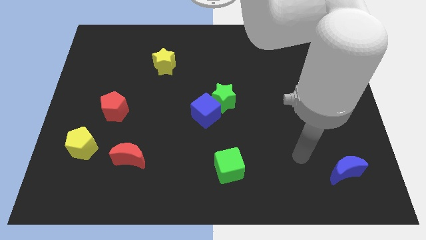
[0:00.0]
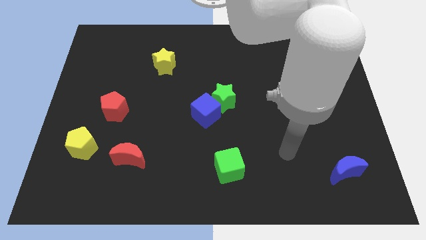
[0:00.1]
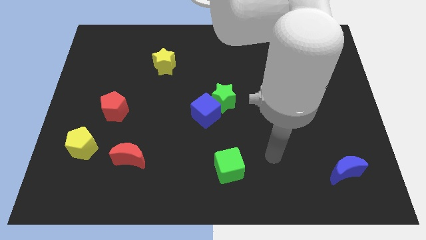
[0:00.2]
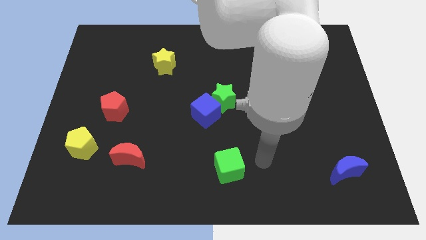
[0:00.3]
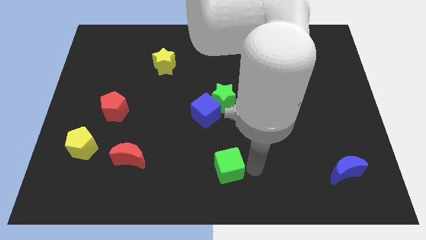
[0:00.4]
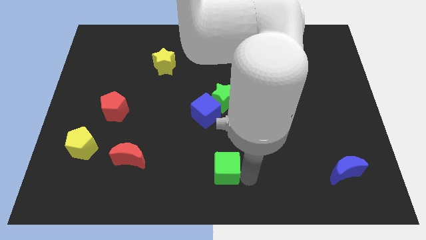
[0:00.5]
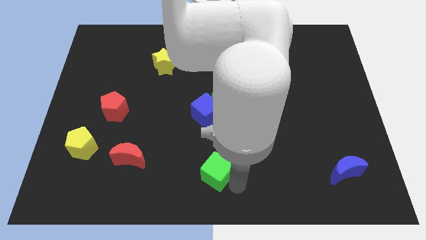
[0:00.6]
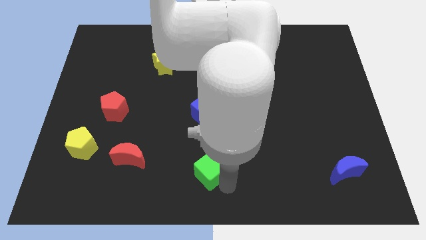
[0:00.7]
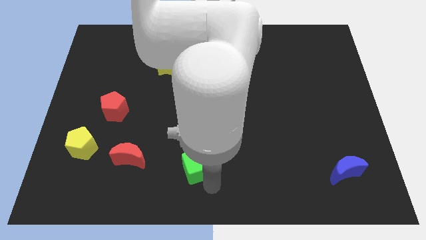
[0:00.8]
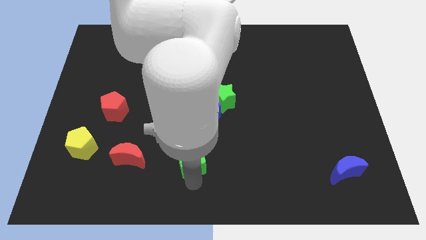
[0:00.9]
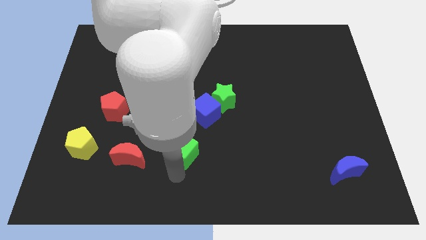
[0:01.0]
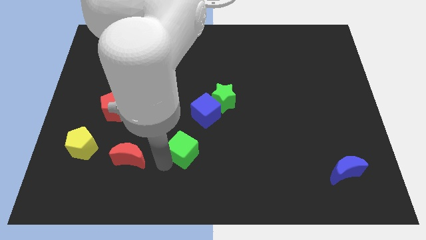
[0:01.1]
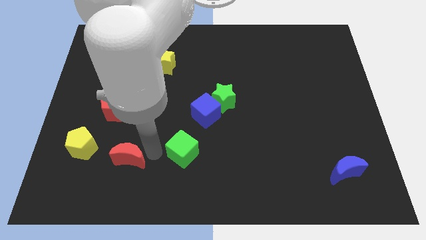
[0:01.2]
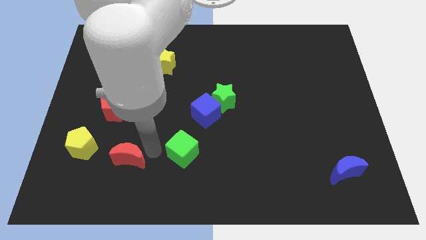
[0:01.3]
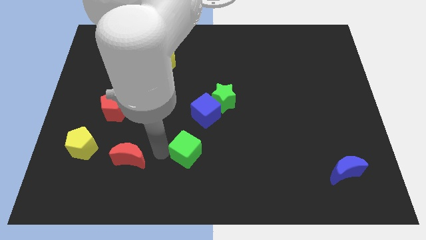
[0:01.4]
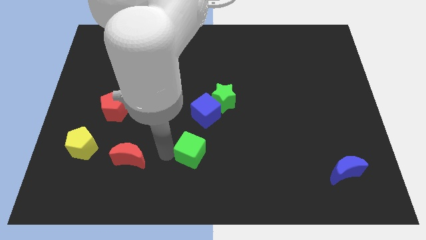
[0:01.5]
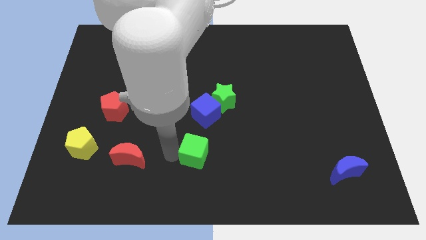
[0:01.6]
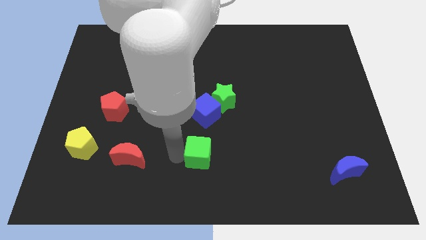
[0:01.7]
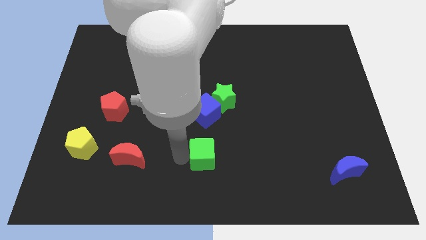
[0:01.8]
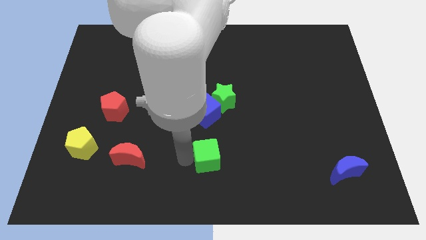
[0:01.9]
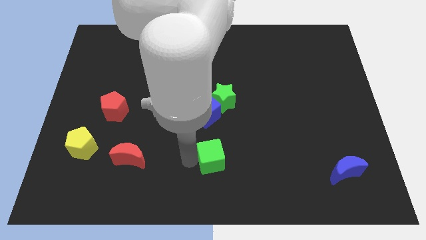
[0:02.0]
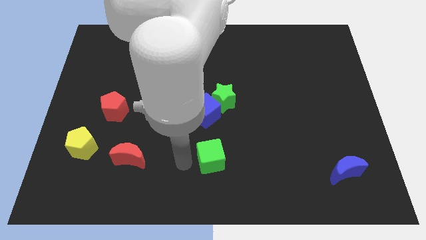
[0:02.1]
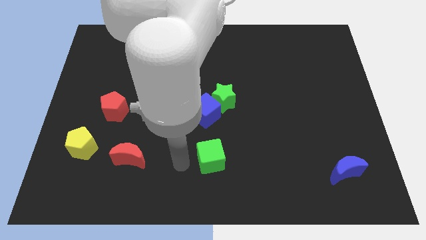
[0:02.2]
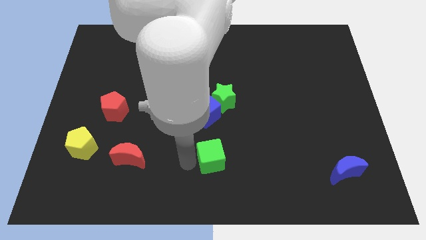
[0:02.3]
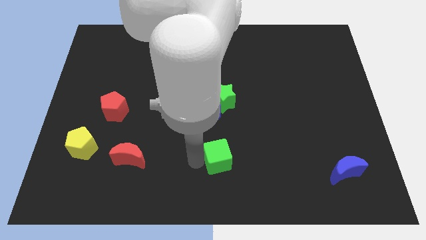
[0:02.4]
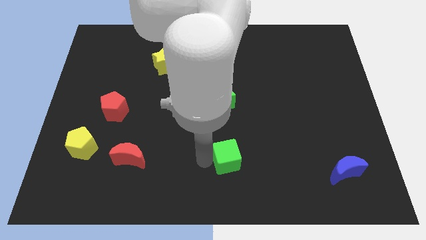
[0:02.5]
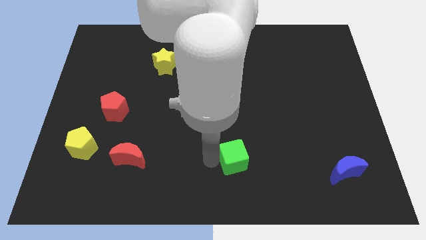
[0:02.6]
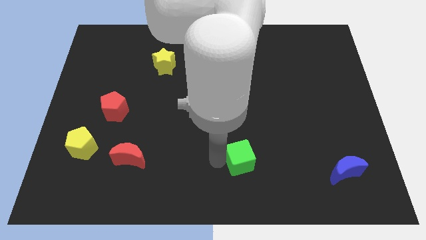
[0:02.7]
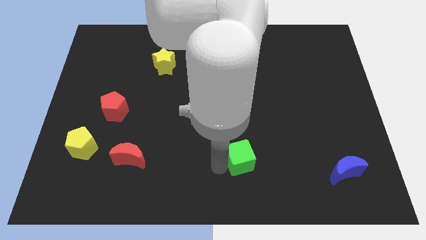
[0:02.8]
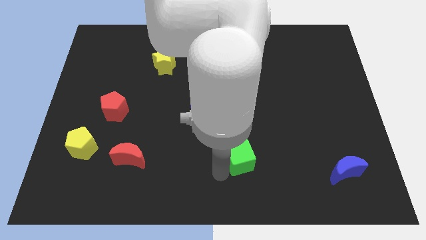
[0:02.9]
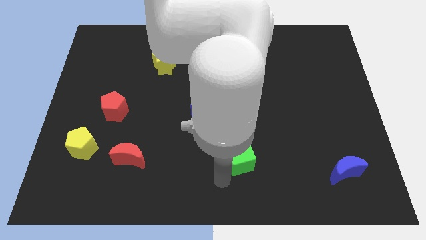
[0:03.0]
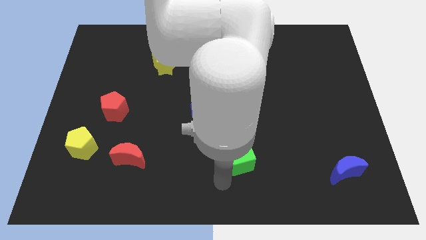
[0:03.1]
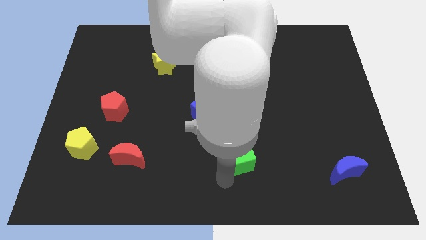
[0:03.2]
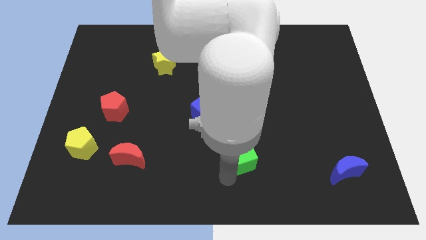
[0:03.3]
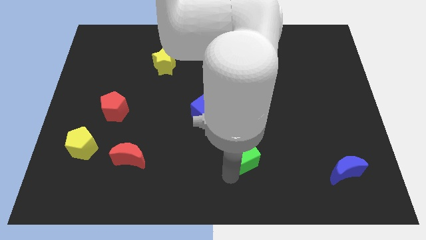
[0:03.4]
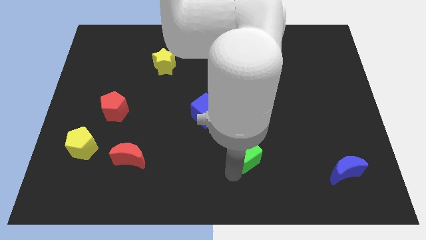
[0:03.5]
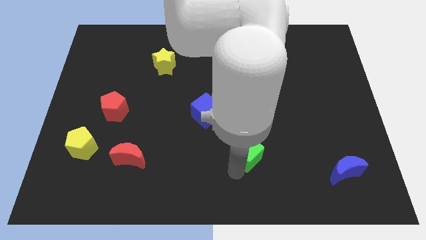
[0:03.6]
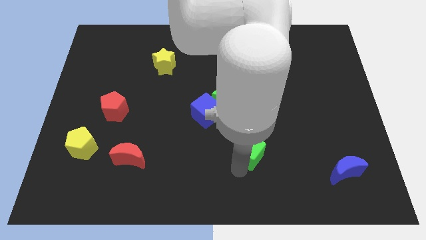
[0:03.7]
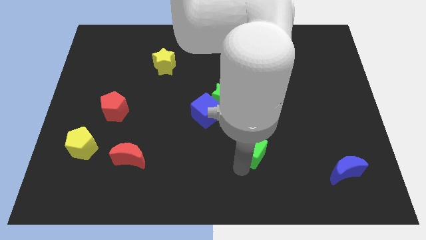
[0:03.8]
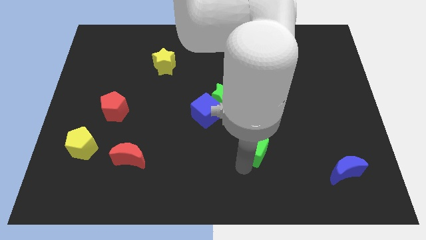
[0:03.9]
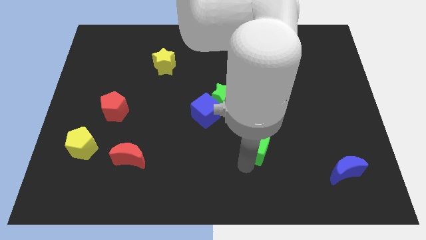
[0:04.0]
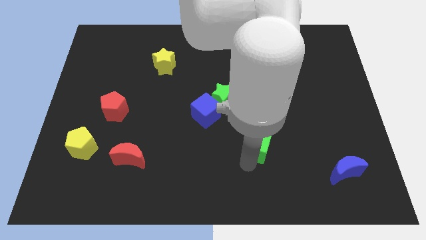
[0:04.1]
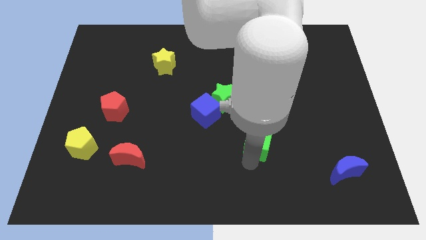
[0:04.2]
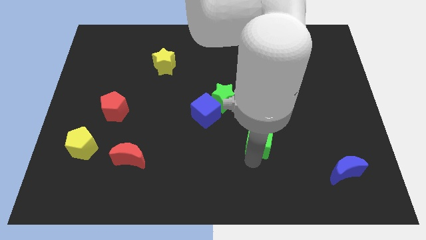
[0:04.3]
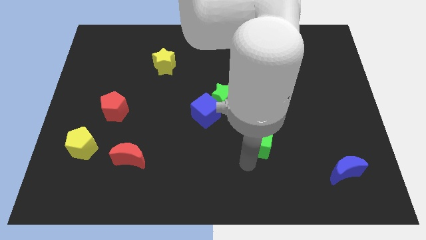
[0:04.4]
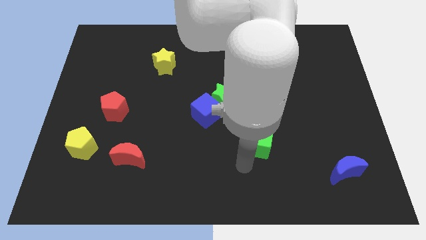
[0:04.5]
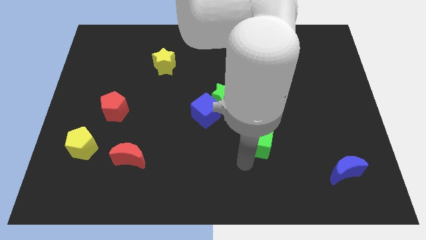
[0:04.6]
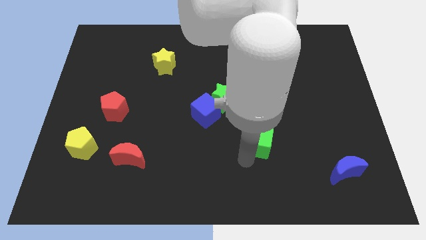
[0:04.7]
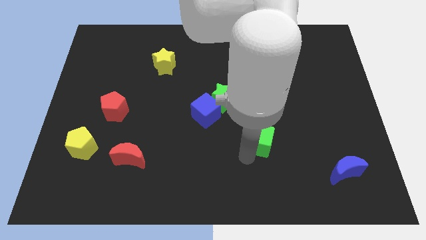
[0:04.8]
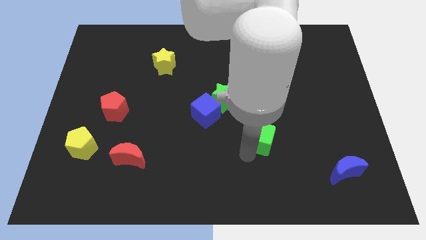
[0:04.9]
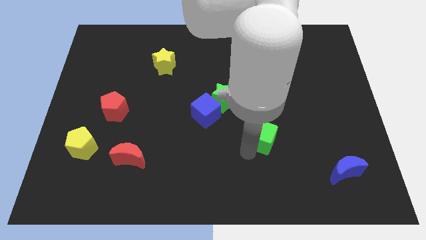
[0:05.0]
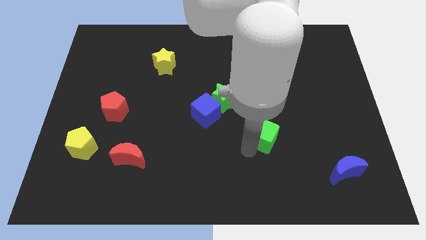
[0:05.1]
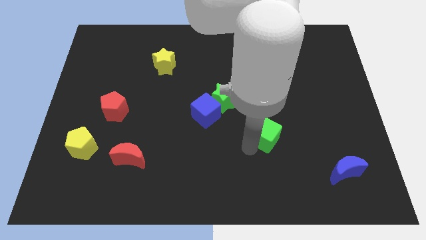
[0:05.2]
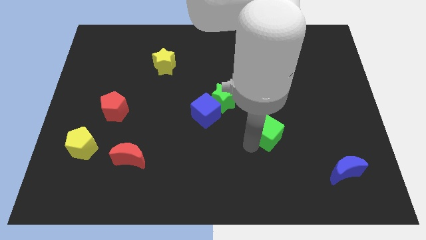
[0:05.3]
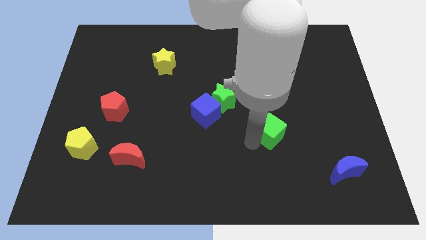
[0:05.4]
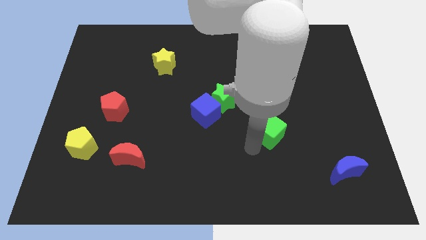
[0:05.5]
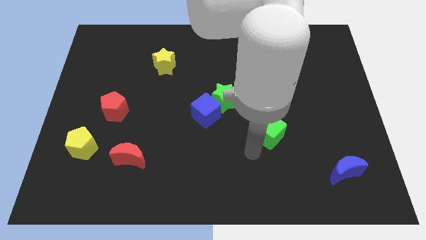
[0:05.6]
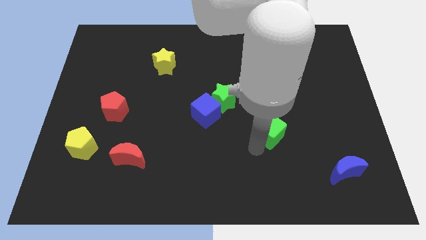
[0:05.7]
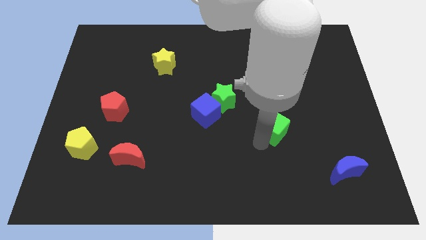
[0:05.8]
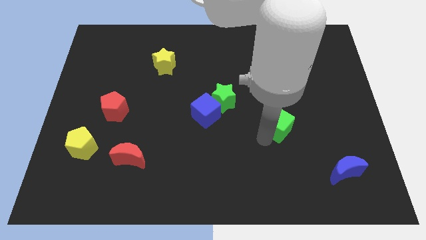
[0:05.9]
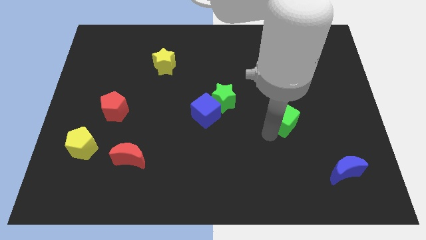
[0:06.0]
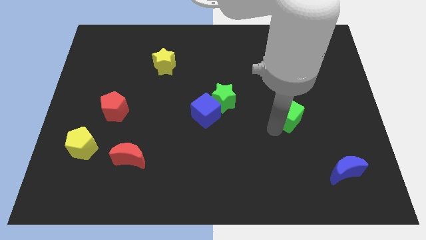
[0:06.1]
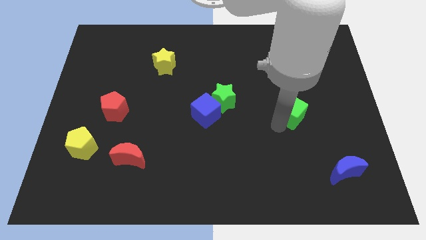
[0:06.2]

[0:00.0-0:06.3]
slide the green cube diagonally upwards and to the right

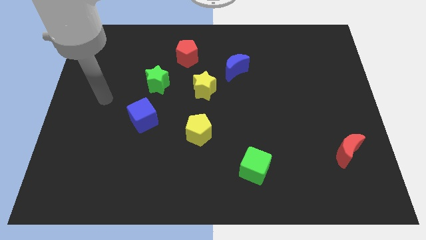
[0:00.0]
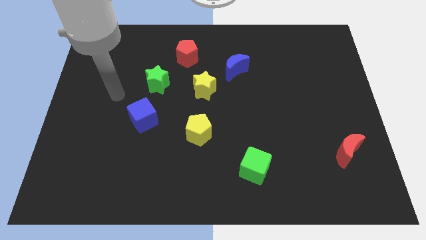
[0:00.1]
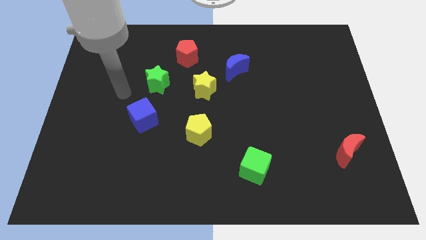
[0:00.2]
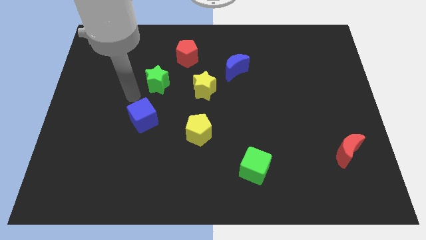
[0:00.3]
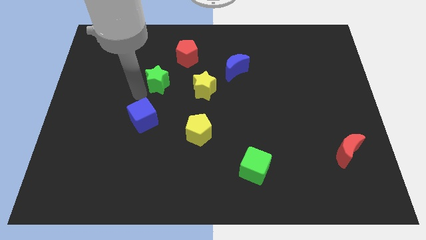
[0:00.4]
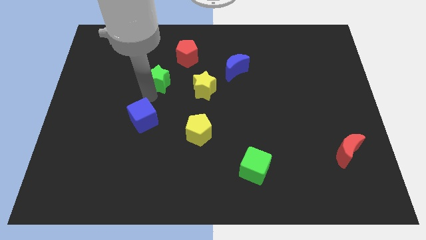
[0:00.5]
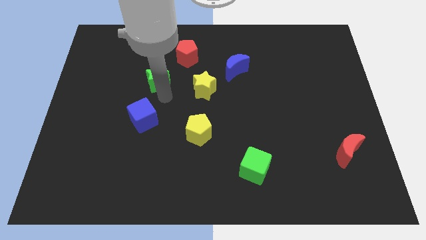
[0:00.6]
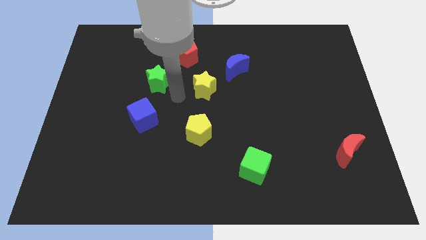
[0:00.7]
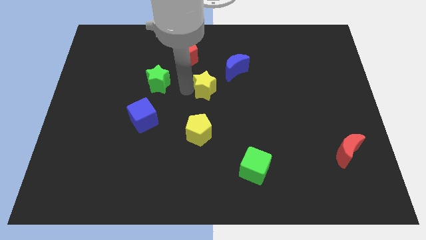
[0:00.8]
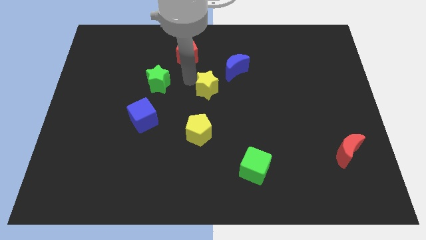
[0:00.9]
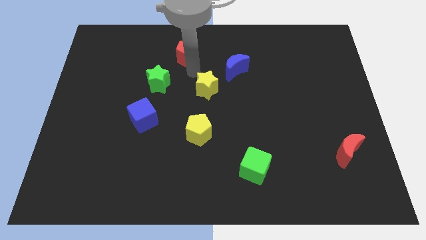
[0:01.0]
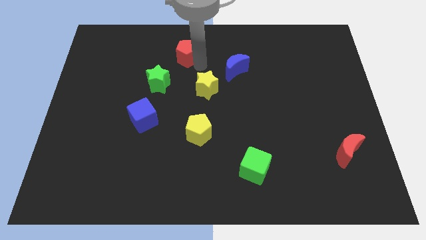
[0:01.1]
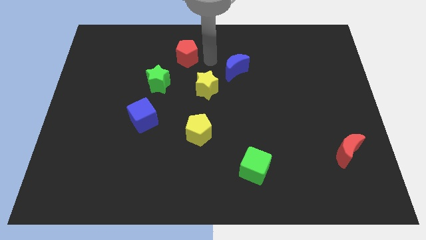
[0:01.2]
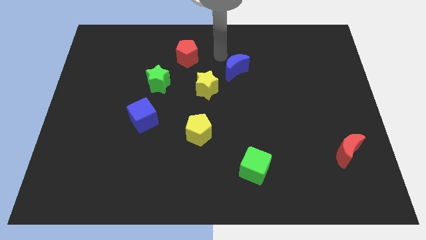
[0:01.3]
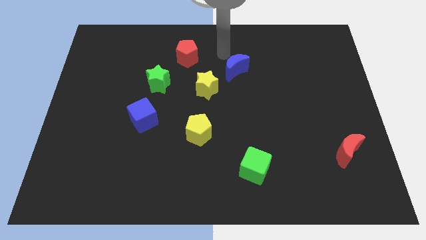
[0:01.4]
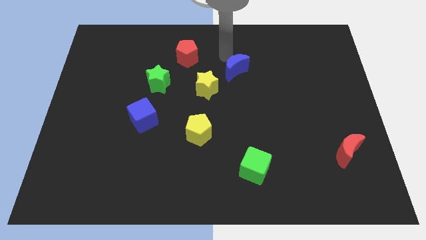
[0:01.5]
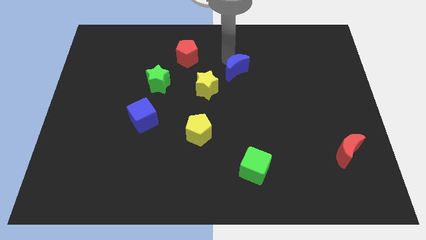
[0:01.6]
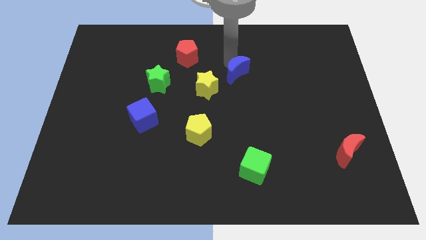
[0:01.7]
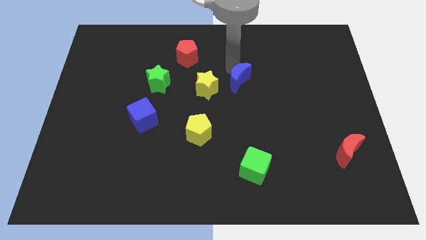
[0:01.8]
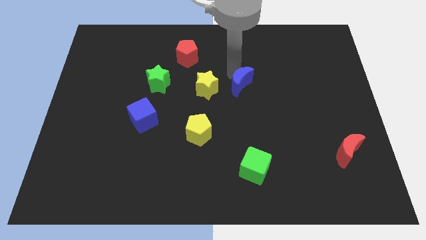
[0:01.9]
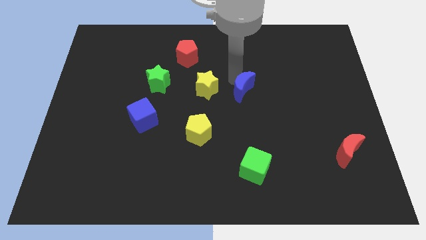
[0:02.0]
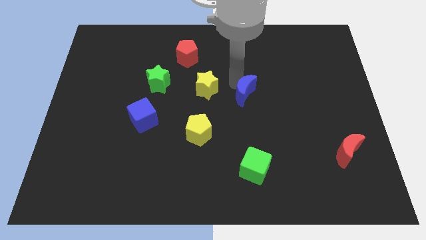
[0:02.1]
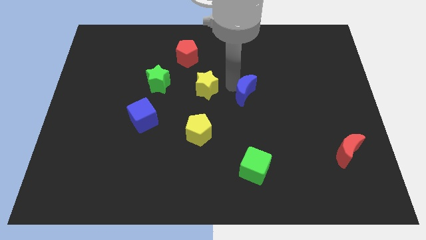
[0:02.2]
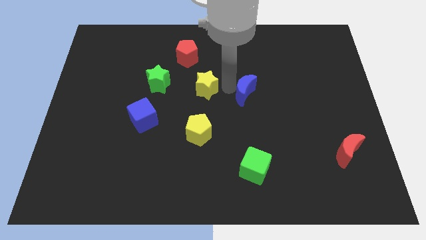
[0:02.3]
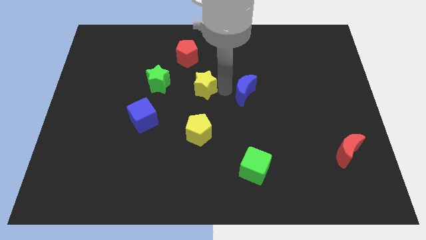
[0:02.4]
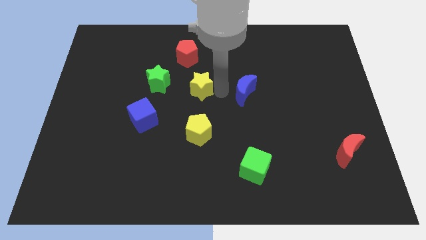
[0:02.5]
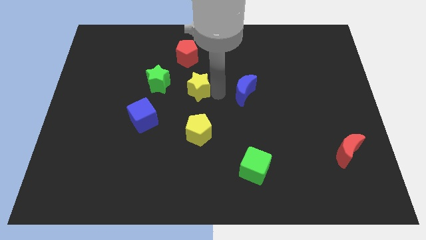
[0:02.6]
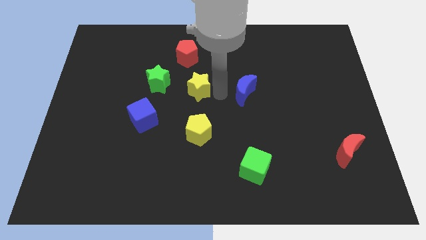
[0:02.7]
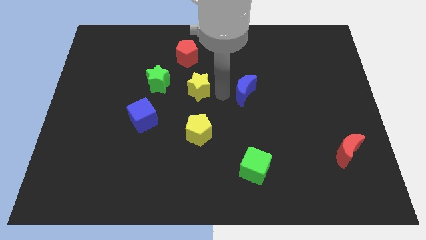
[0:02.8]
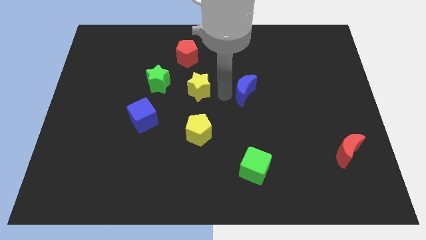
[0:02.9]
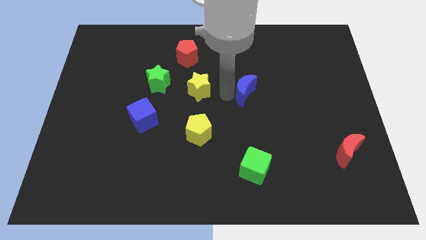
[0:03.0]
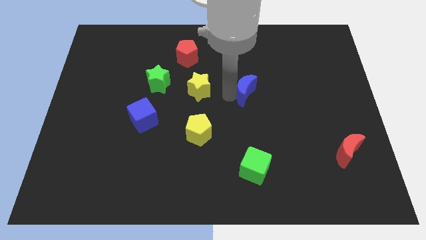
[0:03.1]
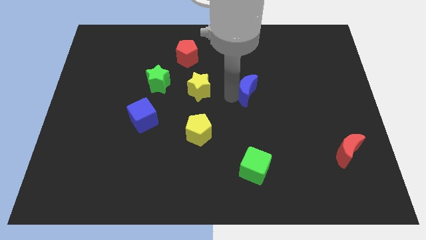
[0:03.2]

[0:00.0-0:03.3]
slide the blue moon a bit downwards and right diagonally
